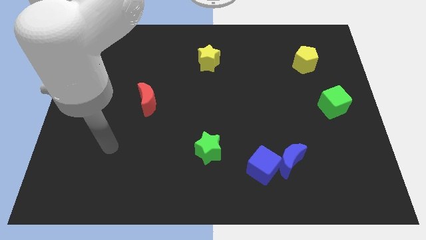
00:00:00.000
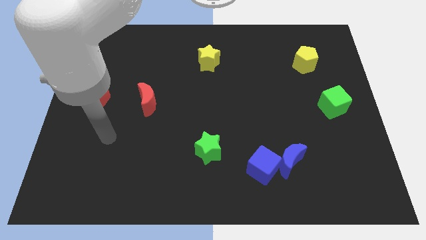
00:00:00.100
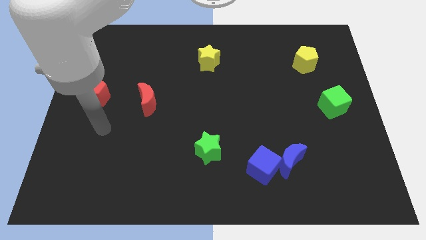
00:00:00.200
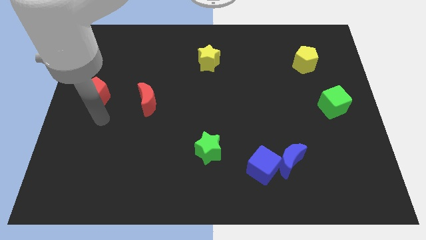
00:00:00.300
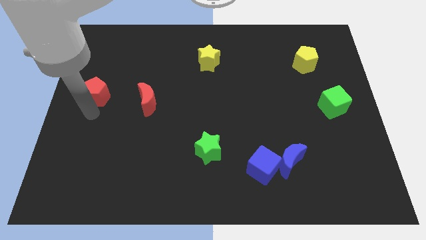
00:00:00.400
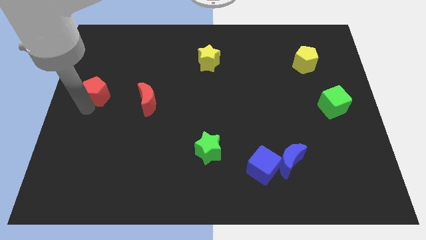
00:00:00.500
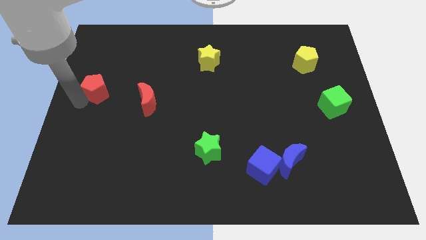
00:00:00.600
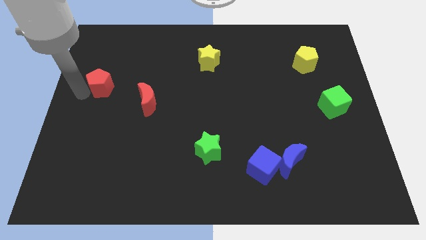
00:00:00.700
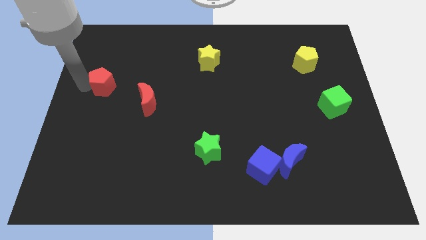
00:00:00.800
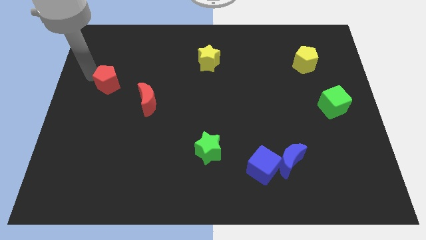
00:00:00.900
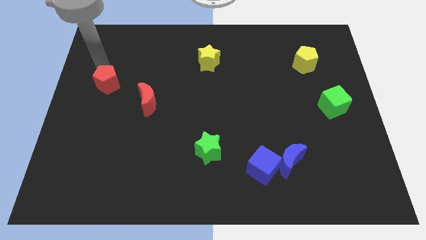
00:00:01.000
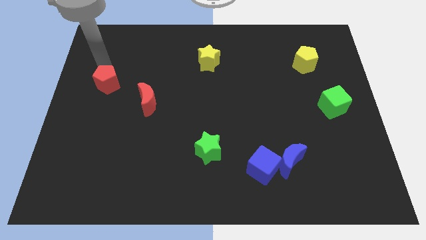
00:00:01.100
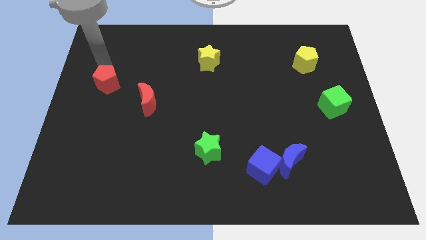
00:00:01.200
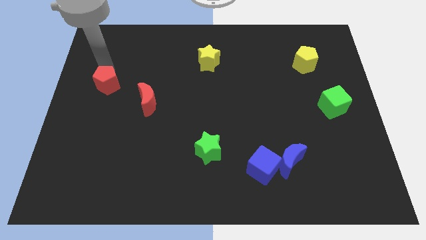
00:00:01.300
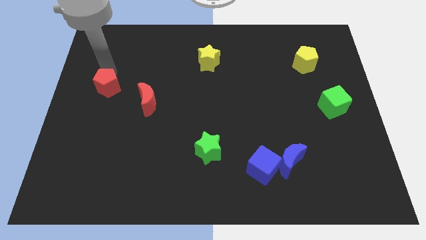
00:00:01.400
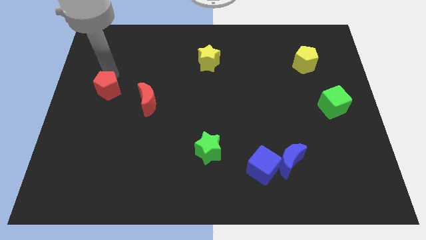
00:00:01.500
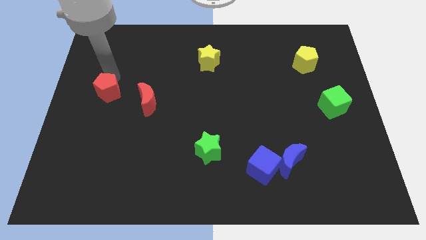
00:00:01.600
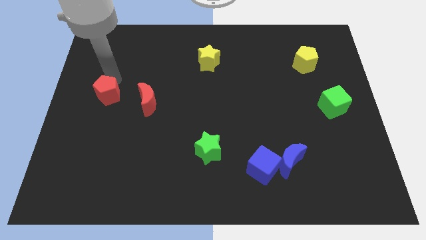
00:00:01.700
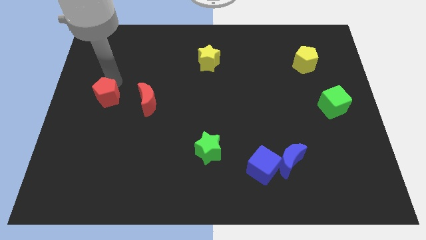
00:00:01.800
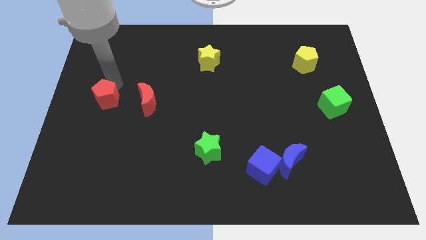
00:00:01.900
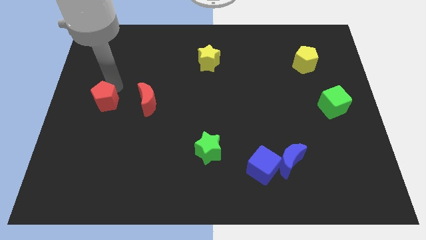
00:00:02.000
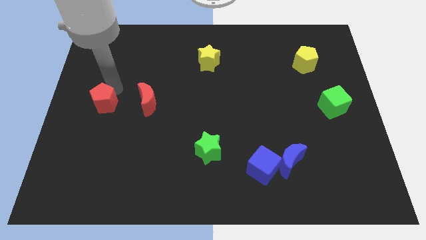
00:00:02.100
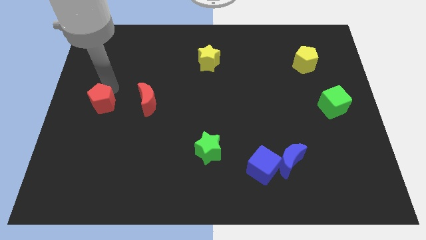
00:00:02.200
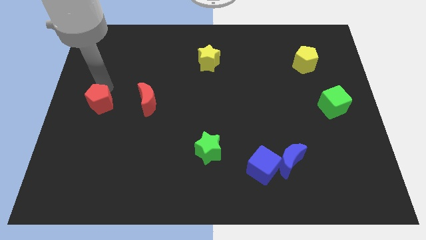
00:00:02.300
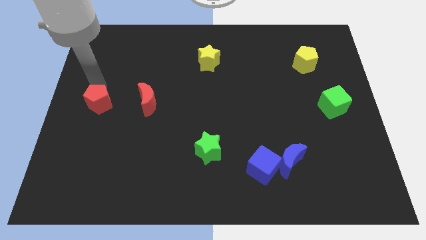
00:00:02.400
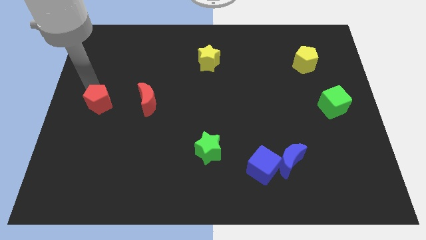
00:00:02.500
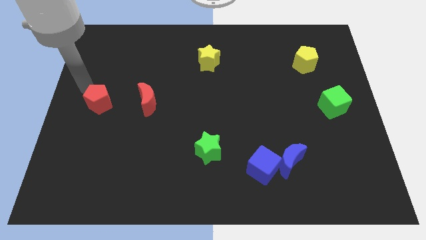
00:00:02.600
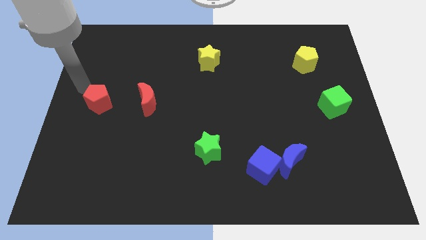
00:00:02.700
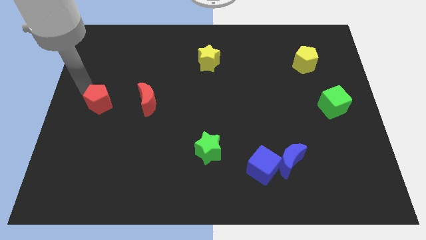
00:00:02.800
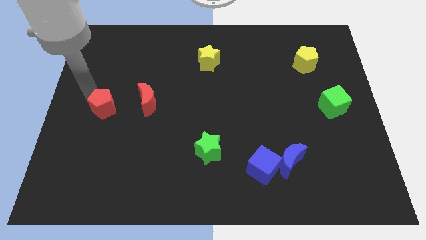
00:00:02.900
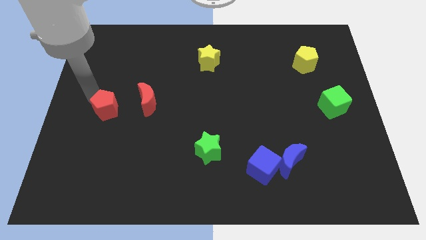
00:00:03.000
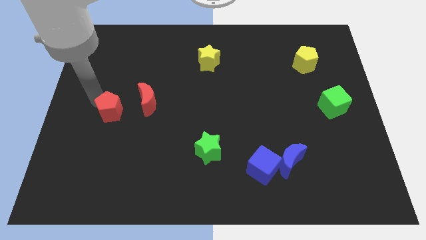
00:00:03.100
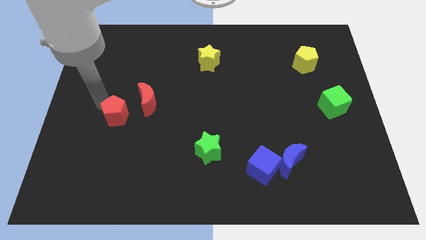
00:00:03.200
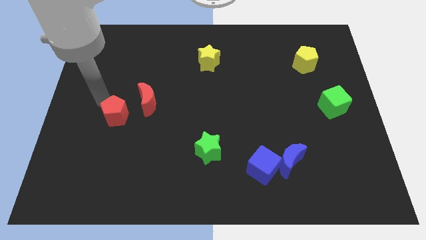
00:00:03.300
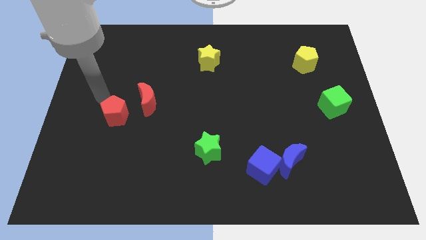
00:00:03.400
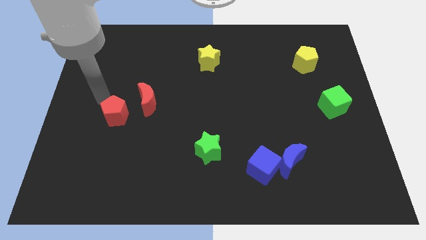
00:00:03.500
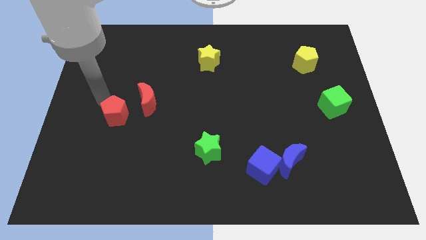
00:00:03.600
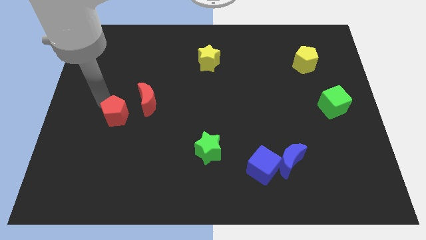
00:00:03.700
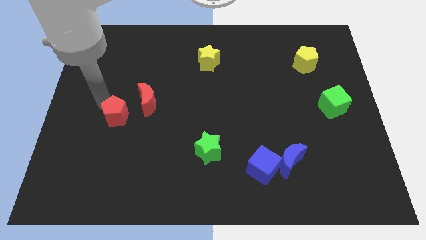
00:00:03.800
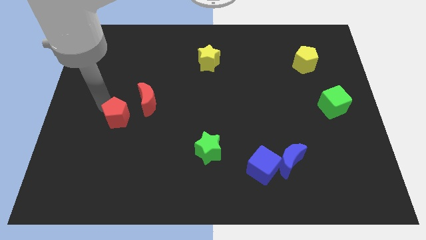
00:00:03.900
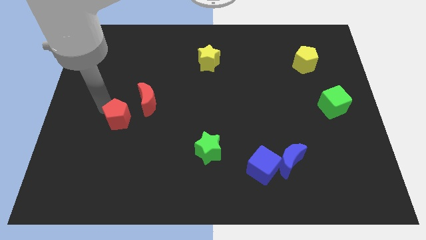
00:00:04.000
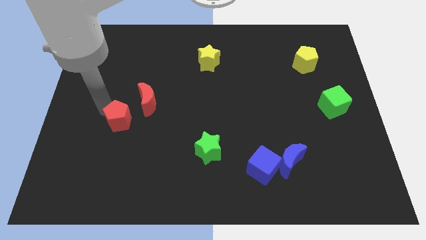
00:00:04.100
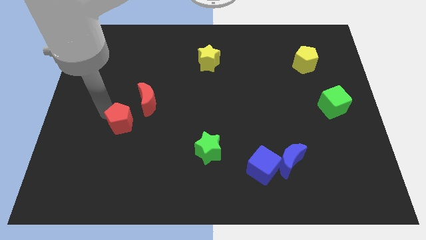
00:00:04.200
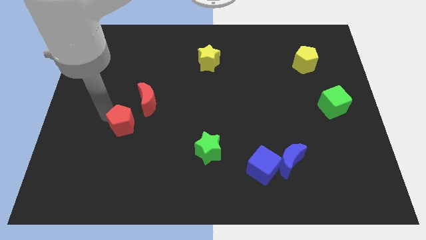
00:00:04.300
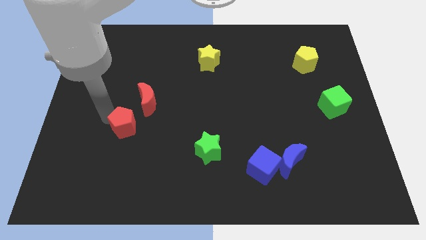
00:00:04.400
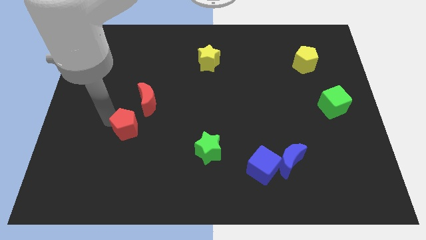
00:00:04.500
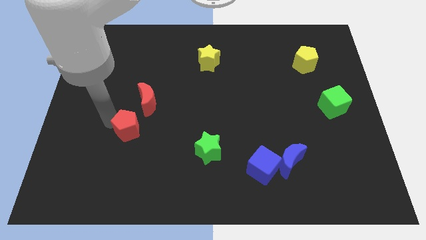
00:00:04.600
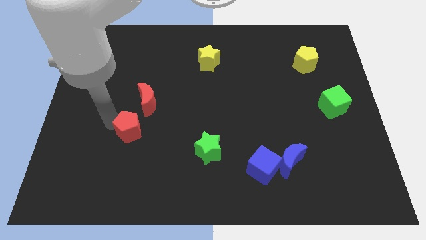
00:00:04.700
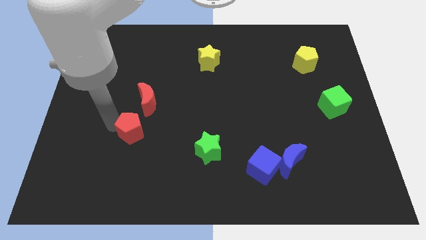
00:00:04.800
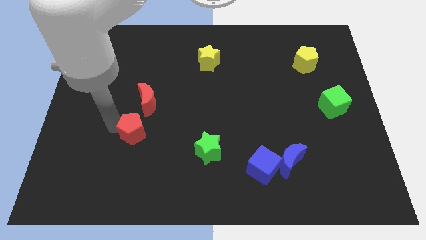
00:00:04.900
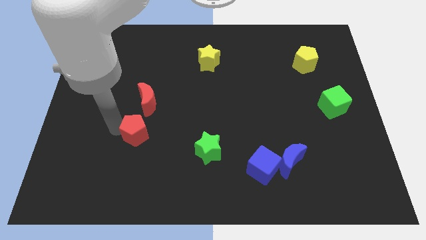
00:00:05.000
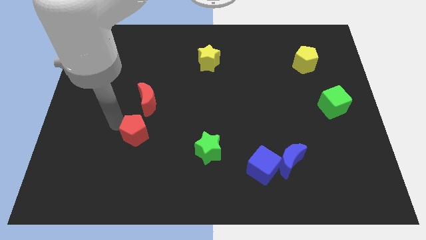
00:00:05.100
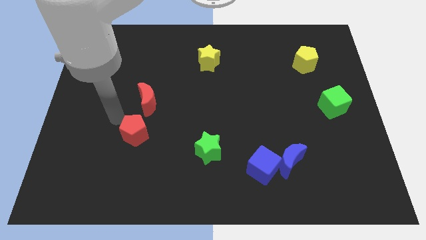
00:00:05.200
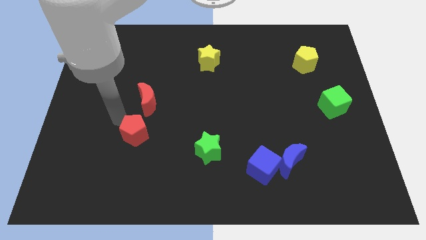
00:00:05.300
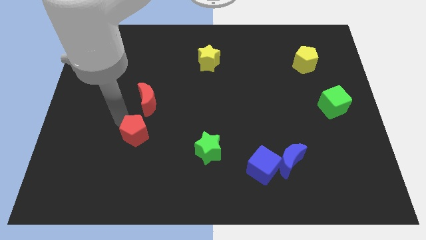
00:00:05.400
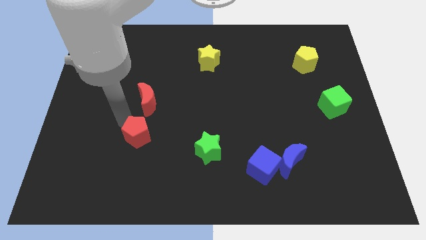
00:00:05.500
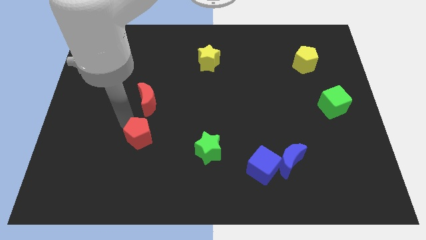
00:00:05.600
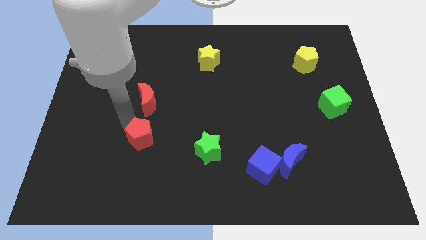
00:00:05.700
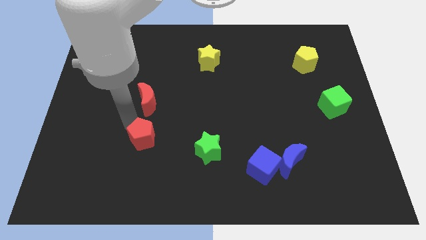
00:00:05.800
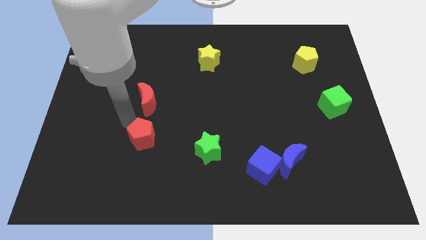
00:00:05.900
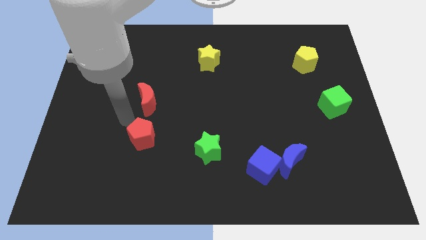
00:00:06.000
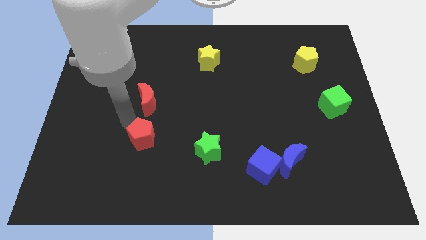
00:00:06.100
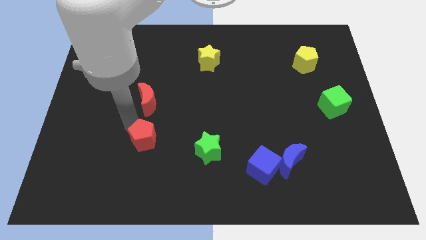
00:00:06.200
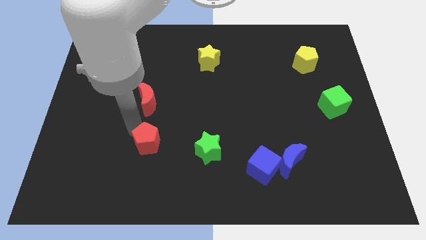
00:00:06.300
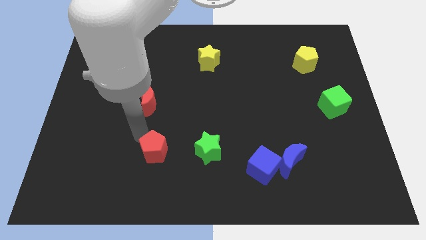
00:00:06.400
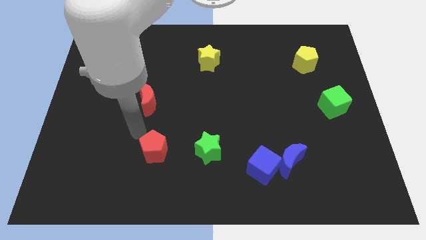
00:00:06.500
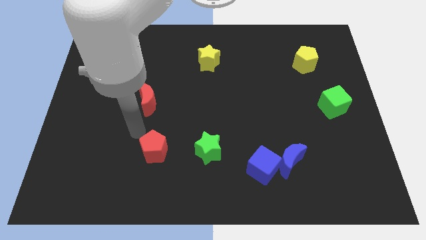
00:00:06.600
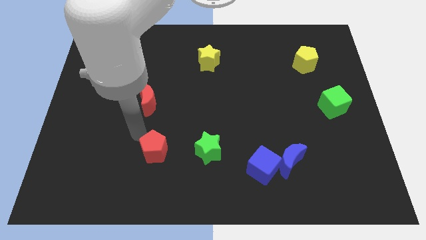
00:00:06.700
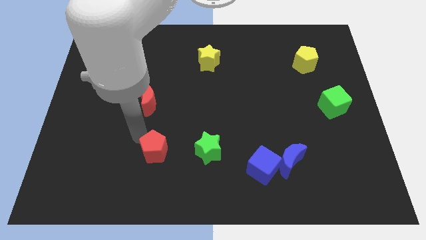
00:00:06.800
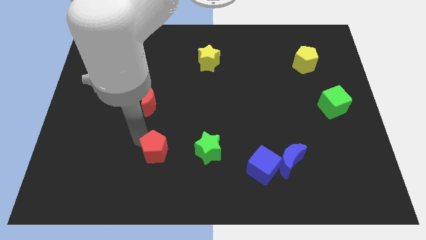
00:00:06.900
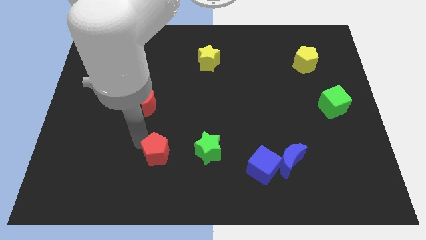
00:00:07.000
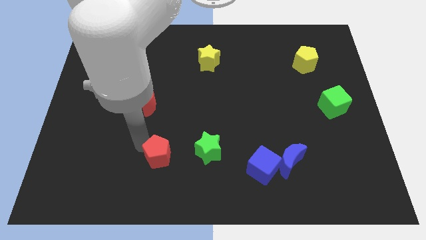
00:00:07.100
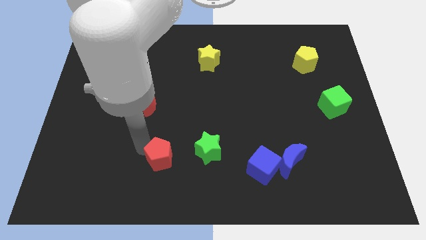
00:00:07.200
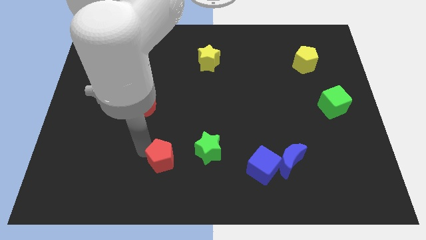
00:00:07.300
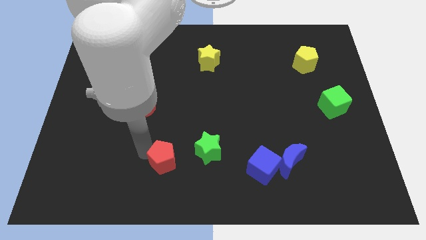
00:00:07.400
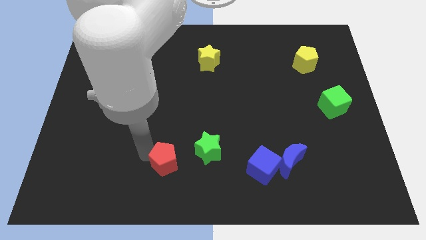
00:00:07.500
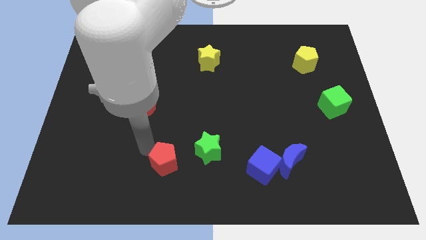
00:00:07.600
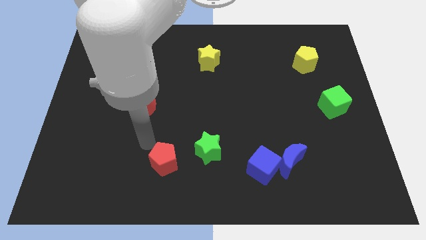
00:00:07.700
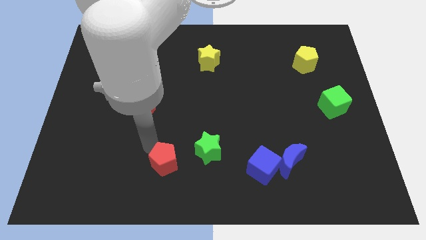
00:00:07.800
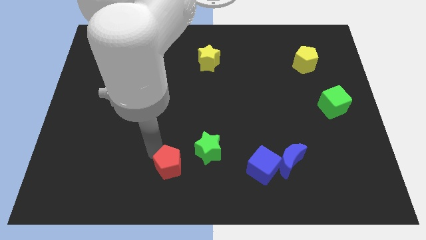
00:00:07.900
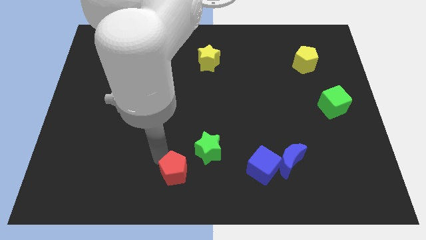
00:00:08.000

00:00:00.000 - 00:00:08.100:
slide the red pentagon to the bottom
